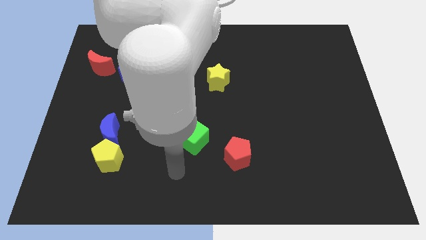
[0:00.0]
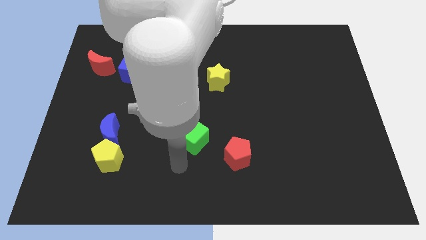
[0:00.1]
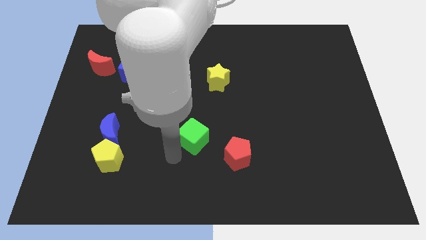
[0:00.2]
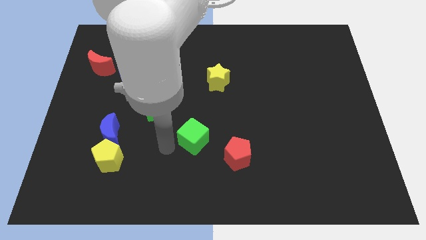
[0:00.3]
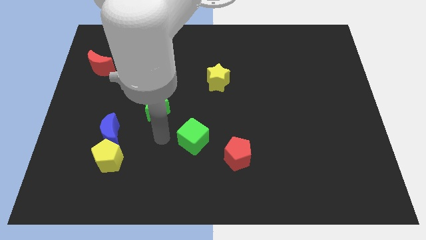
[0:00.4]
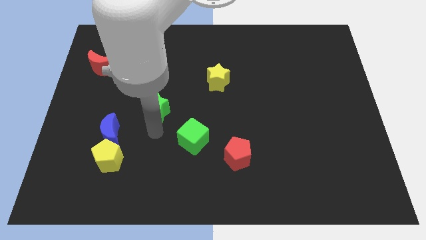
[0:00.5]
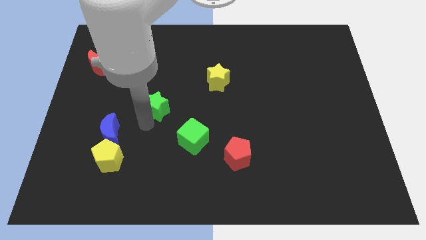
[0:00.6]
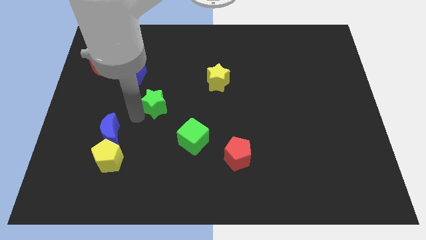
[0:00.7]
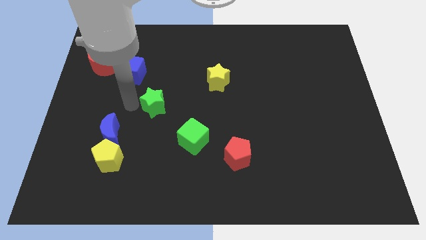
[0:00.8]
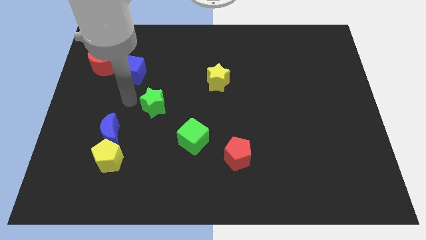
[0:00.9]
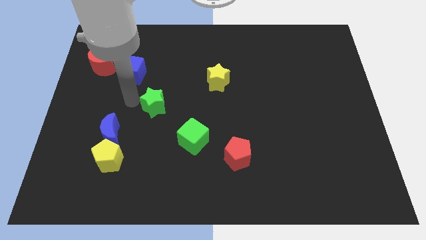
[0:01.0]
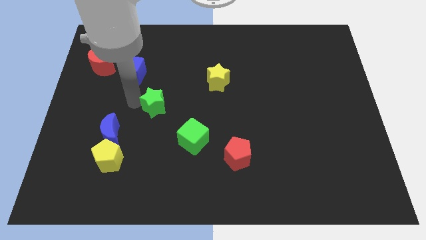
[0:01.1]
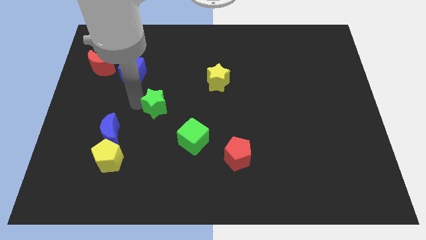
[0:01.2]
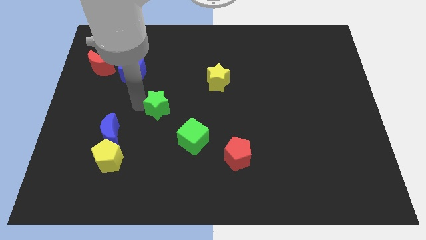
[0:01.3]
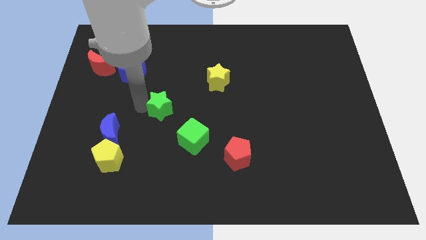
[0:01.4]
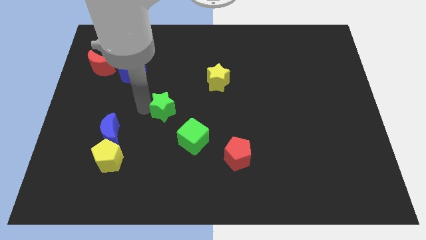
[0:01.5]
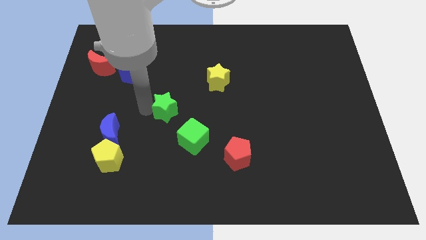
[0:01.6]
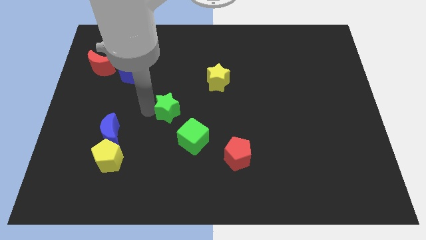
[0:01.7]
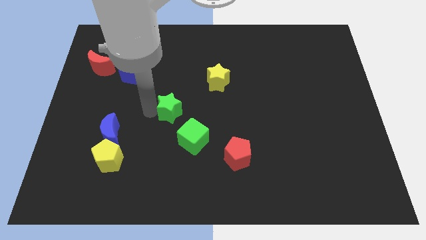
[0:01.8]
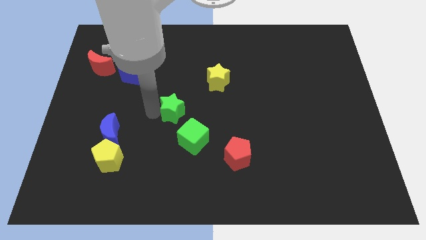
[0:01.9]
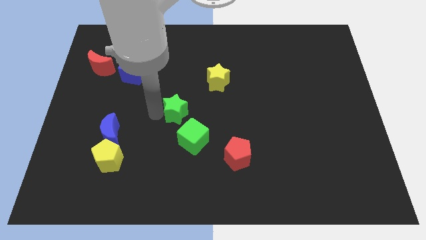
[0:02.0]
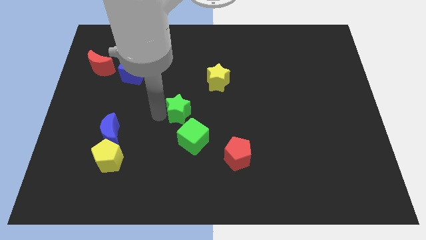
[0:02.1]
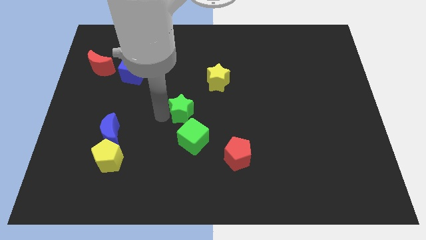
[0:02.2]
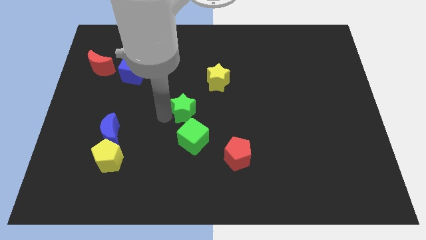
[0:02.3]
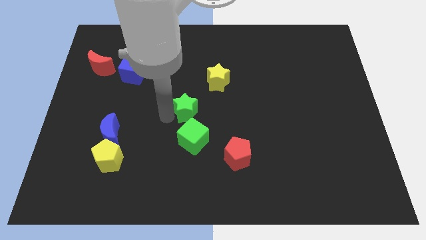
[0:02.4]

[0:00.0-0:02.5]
slide the green star somewhat to the right

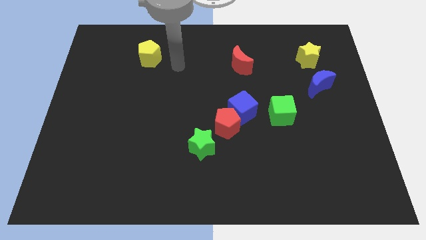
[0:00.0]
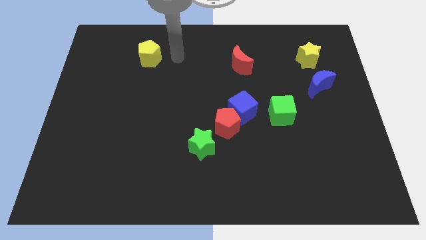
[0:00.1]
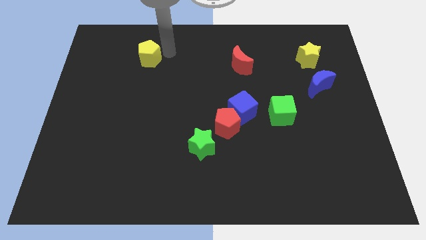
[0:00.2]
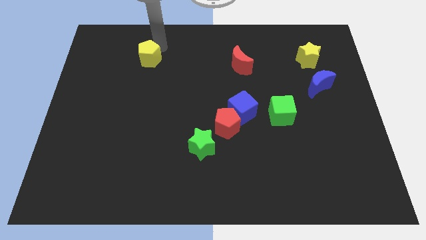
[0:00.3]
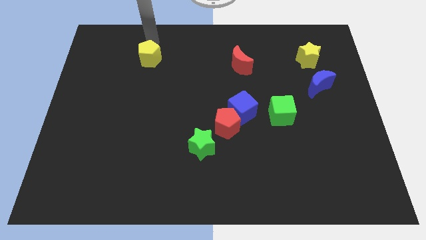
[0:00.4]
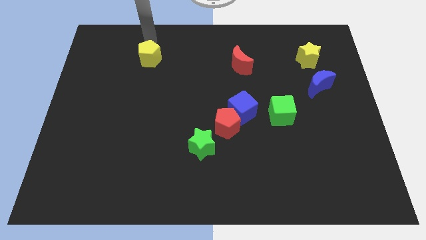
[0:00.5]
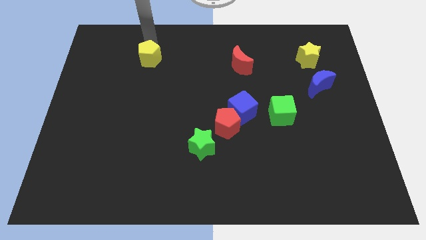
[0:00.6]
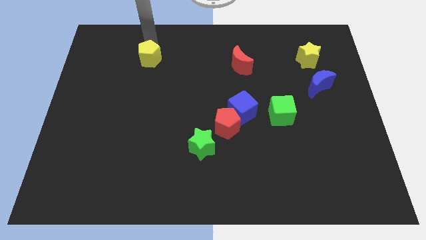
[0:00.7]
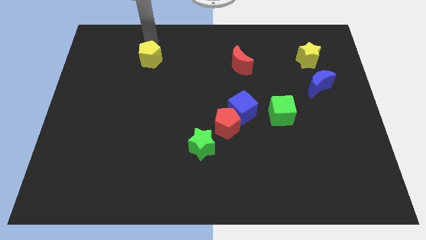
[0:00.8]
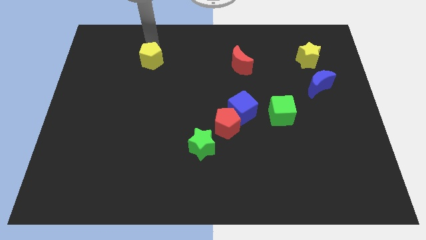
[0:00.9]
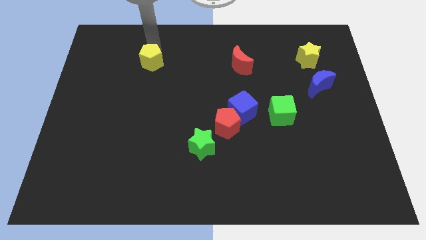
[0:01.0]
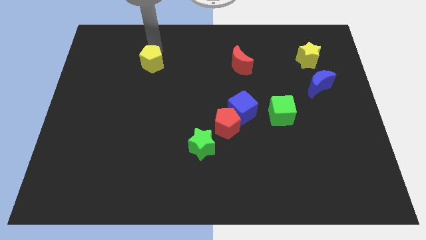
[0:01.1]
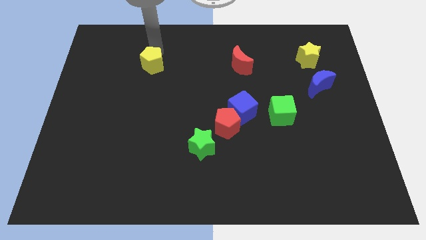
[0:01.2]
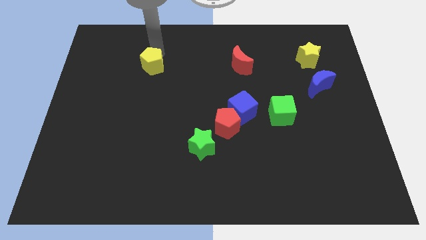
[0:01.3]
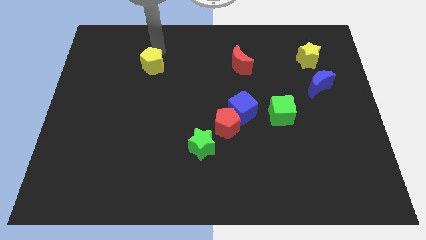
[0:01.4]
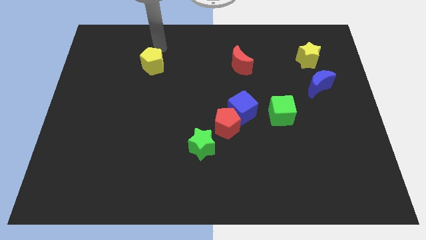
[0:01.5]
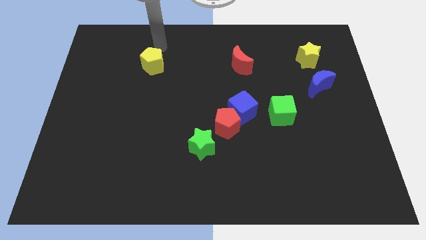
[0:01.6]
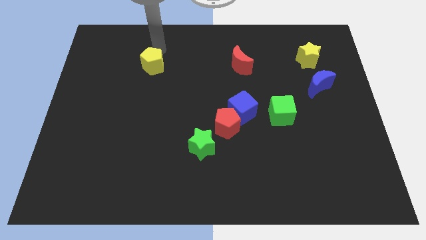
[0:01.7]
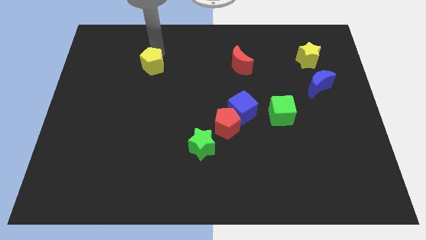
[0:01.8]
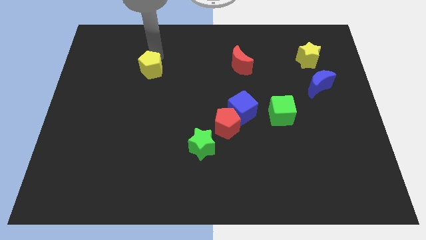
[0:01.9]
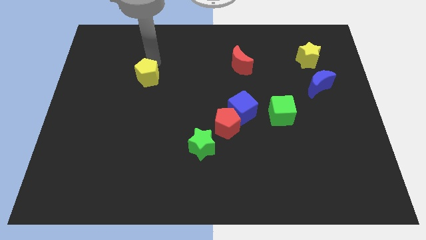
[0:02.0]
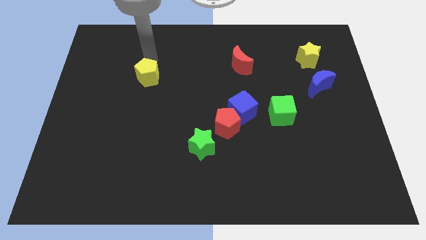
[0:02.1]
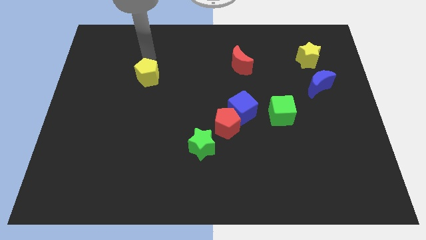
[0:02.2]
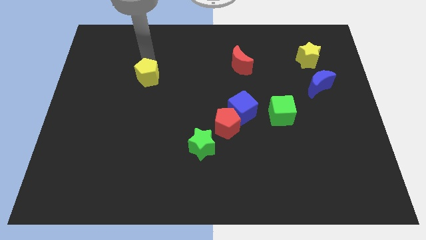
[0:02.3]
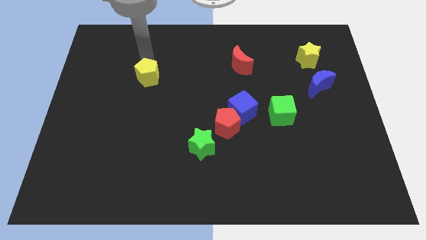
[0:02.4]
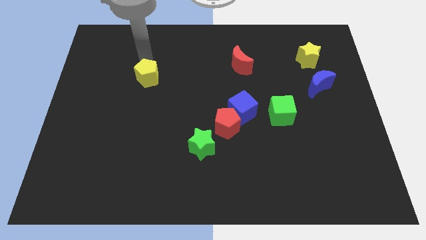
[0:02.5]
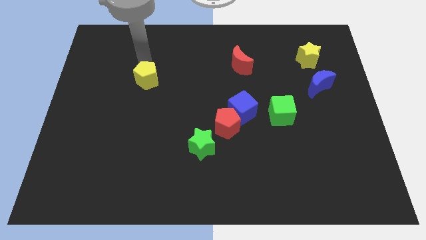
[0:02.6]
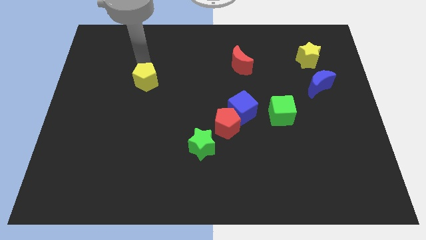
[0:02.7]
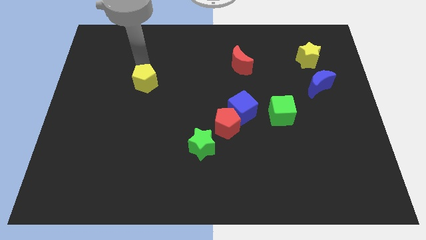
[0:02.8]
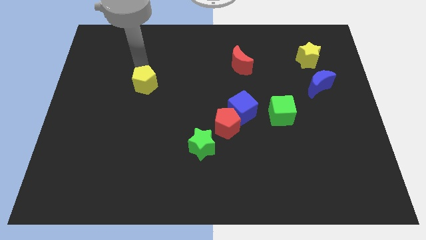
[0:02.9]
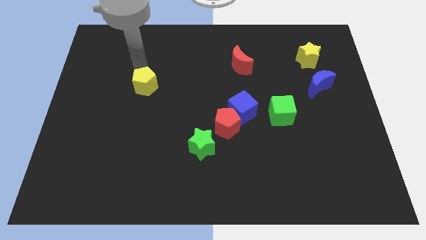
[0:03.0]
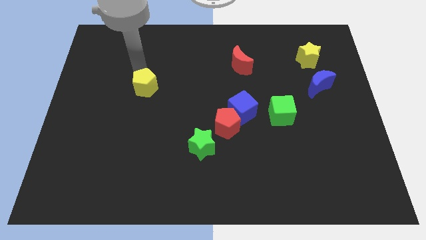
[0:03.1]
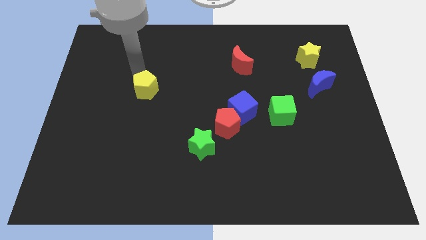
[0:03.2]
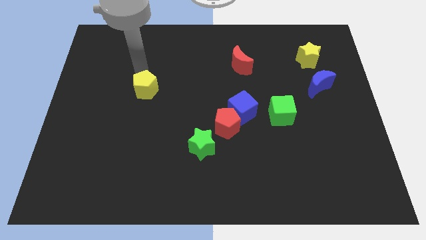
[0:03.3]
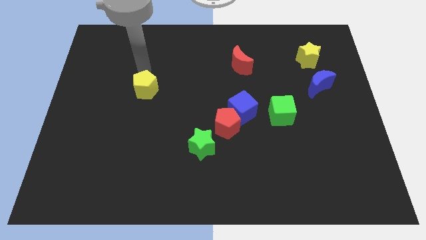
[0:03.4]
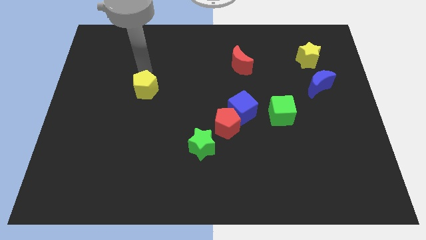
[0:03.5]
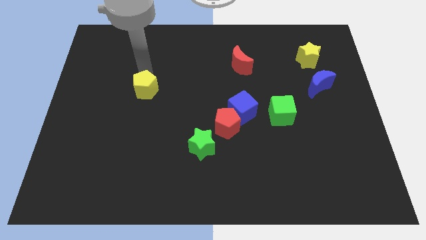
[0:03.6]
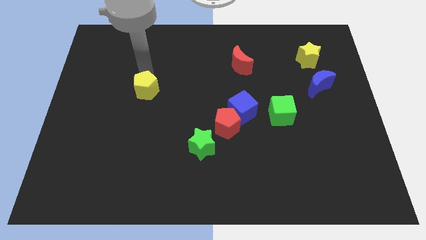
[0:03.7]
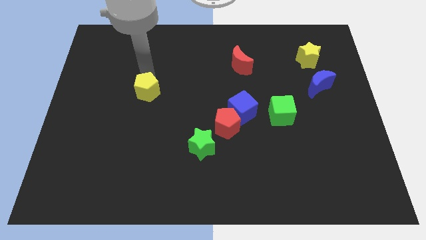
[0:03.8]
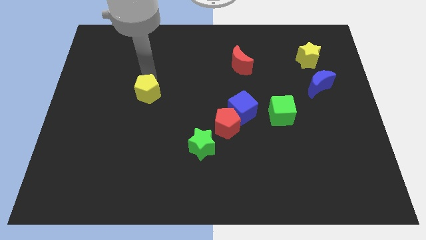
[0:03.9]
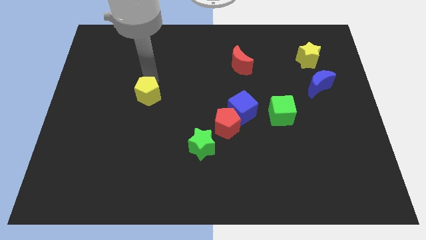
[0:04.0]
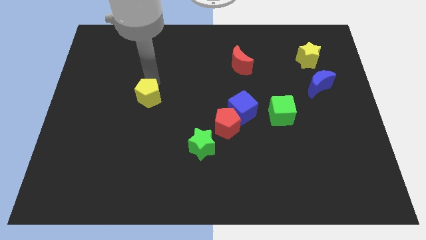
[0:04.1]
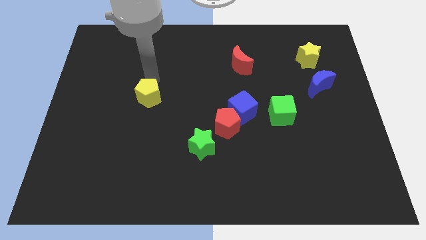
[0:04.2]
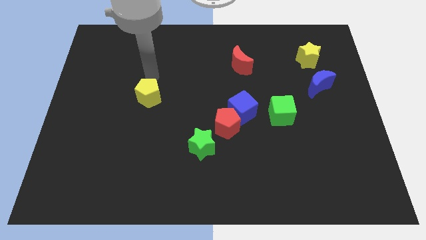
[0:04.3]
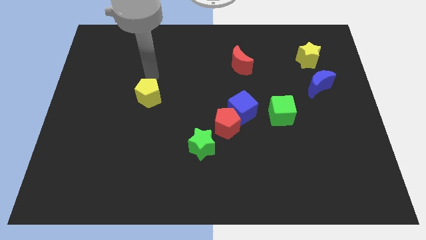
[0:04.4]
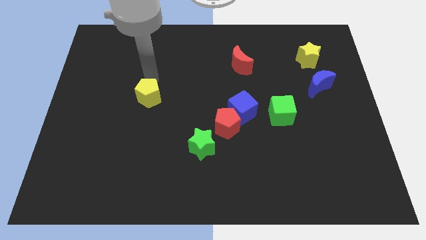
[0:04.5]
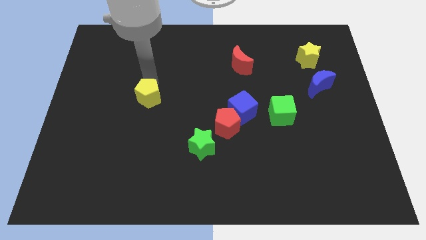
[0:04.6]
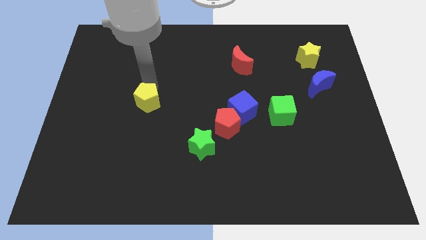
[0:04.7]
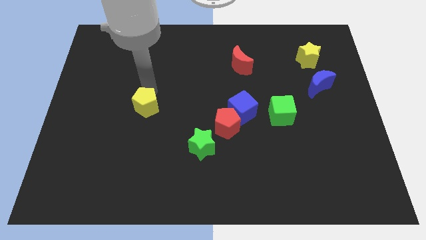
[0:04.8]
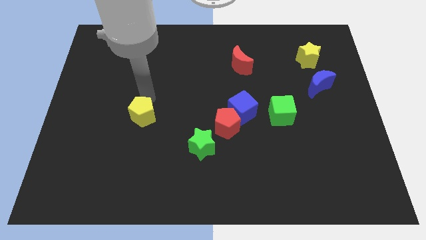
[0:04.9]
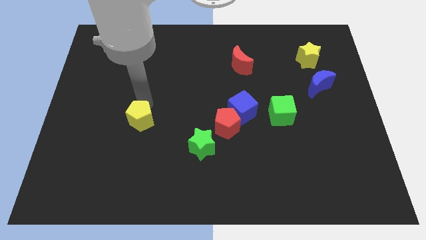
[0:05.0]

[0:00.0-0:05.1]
push the yellow pentagon down

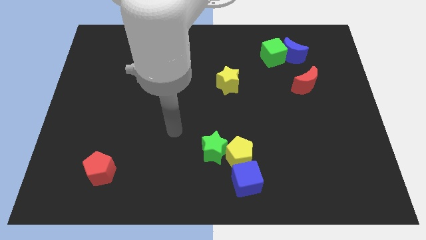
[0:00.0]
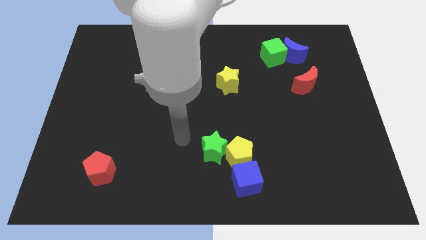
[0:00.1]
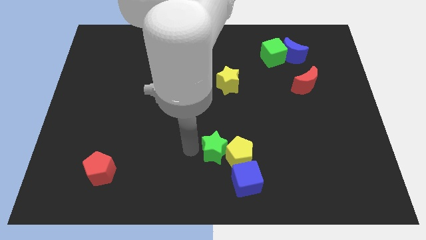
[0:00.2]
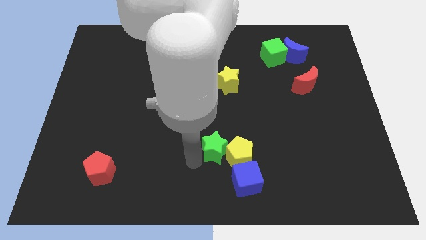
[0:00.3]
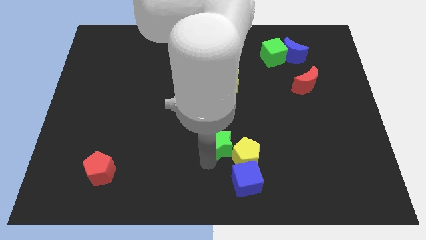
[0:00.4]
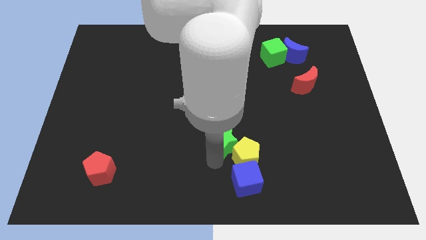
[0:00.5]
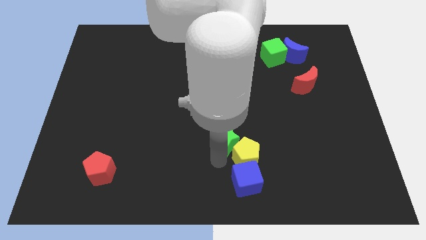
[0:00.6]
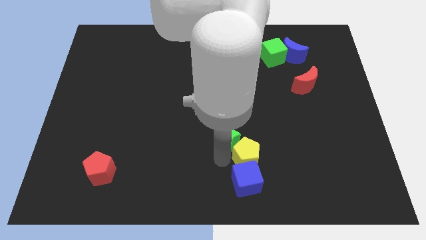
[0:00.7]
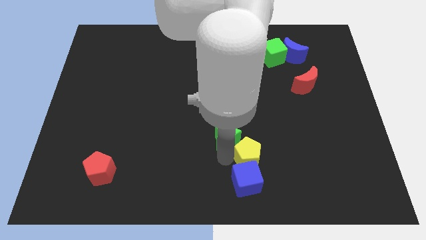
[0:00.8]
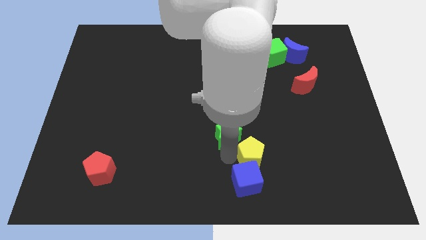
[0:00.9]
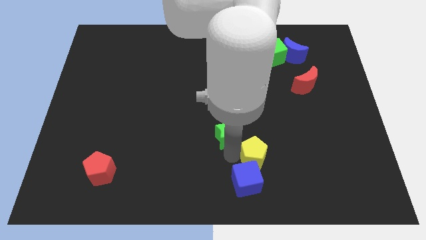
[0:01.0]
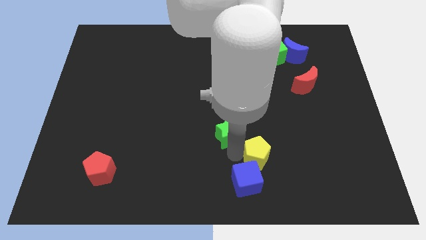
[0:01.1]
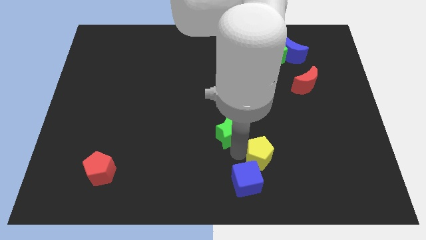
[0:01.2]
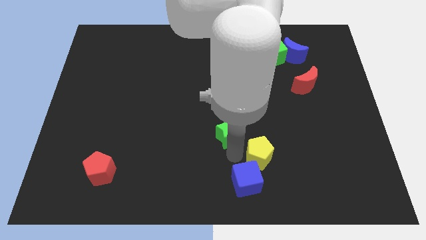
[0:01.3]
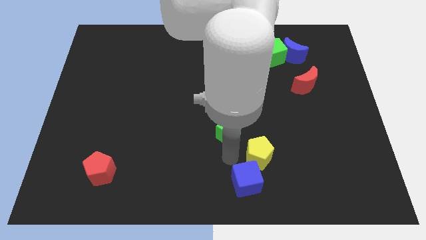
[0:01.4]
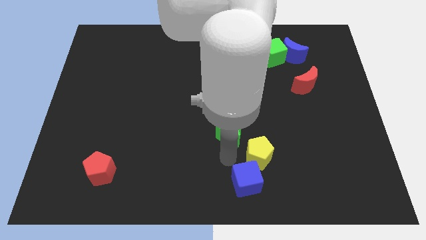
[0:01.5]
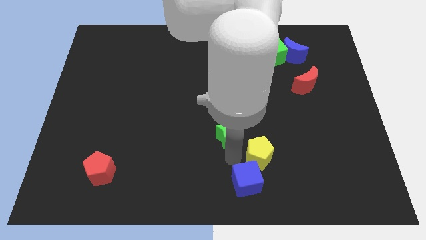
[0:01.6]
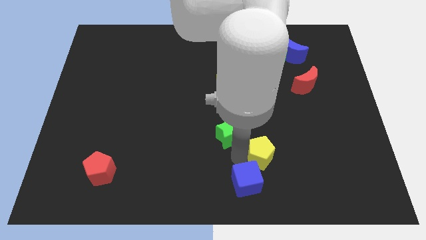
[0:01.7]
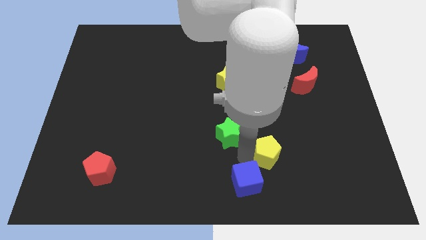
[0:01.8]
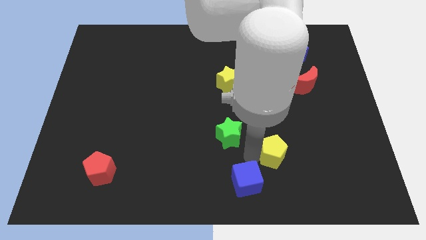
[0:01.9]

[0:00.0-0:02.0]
move the yellow pentagon to the right a little
